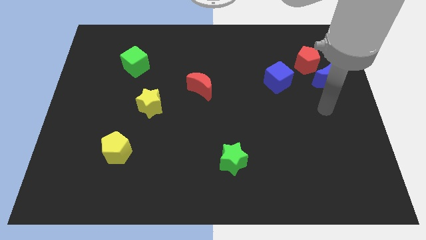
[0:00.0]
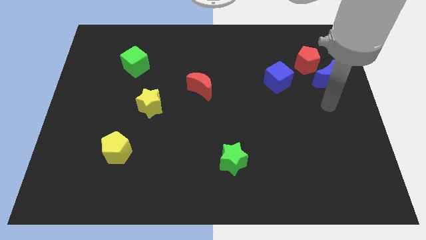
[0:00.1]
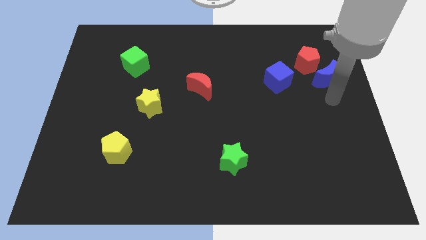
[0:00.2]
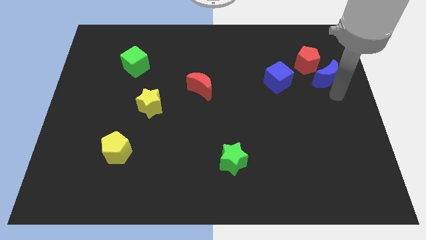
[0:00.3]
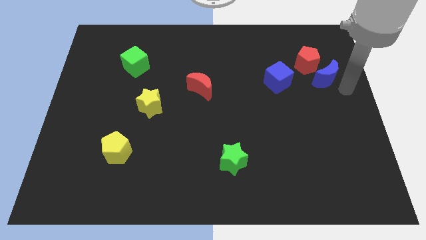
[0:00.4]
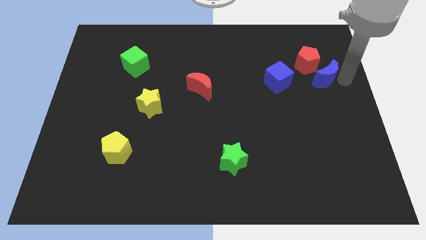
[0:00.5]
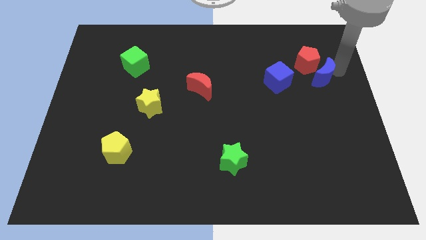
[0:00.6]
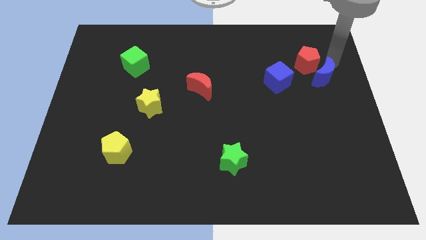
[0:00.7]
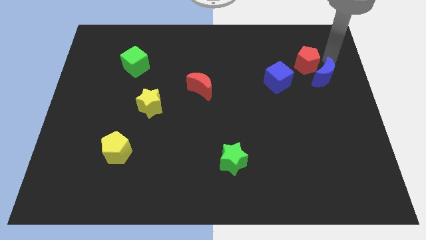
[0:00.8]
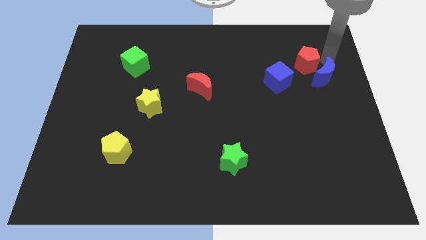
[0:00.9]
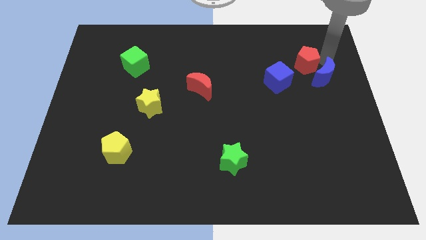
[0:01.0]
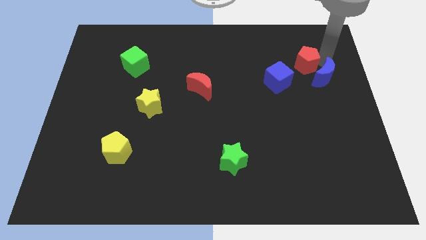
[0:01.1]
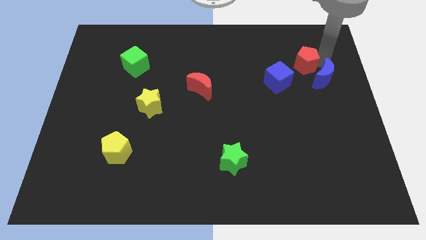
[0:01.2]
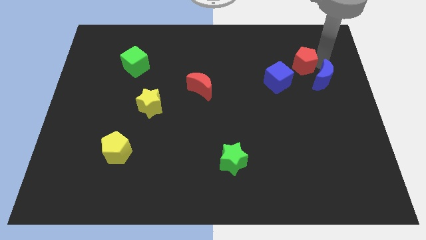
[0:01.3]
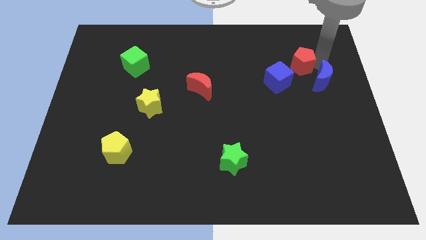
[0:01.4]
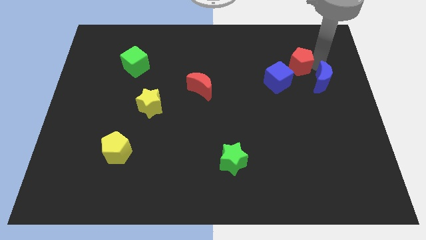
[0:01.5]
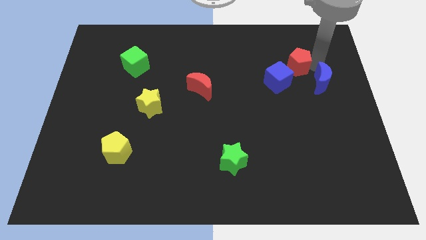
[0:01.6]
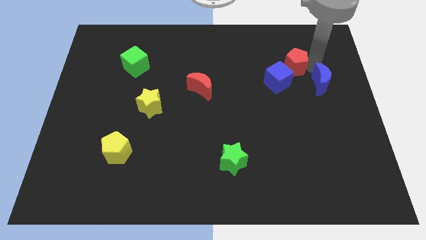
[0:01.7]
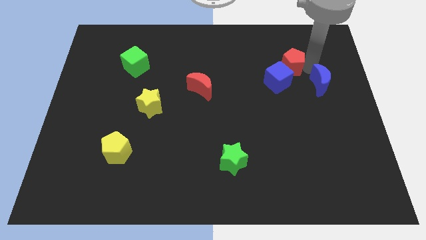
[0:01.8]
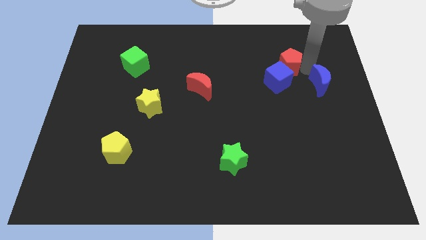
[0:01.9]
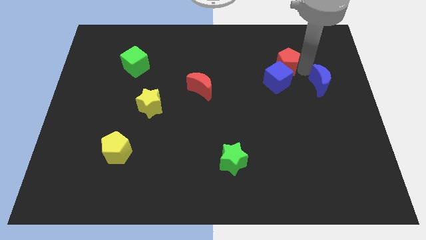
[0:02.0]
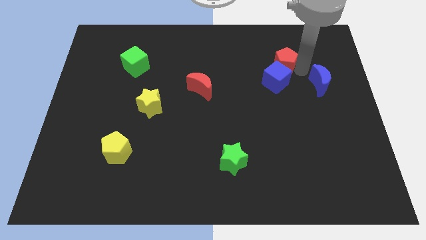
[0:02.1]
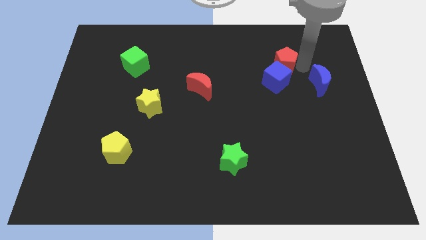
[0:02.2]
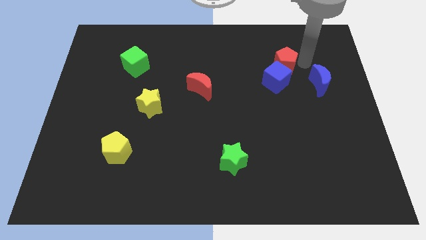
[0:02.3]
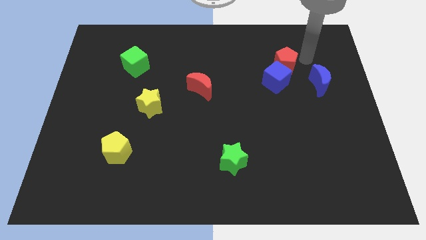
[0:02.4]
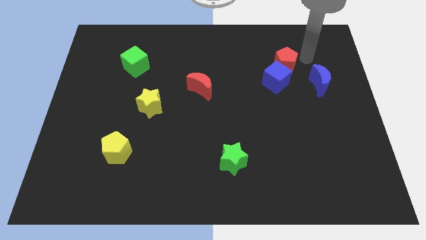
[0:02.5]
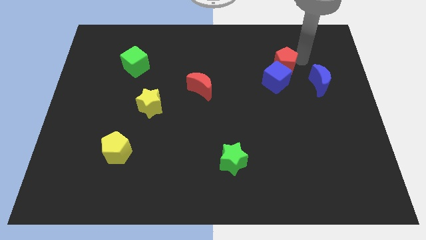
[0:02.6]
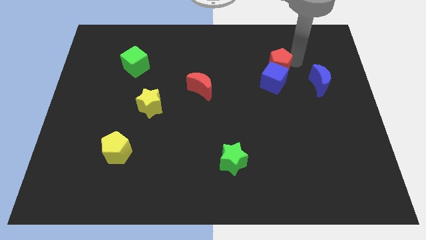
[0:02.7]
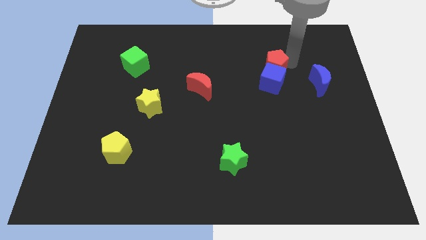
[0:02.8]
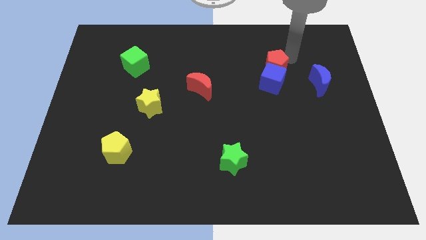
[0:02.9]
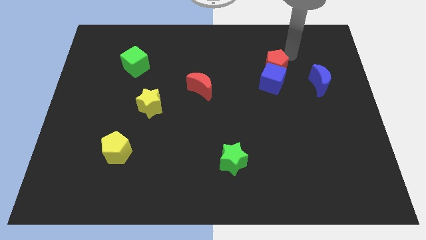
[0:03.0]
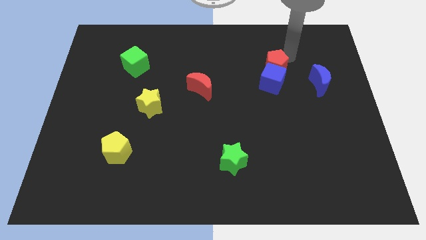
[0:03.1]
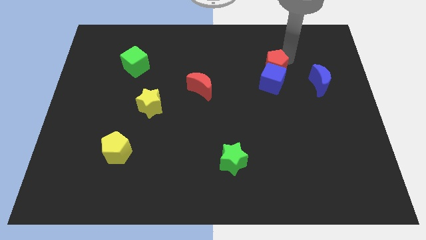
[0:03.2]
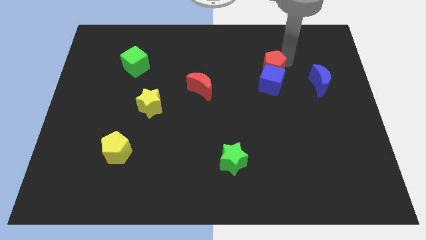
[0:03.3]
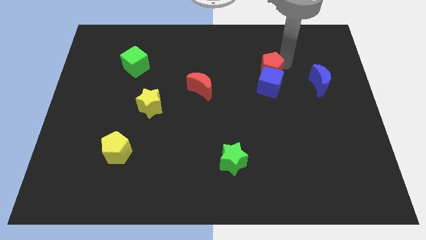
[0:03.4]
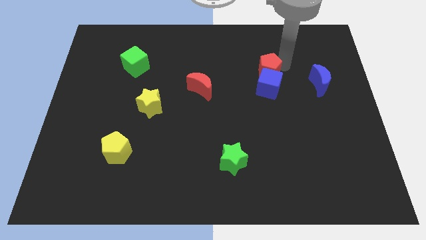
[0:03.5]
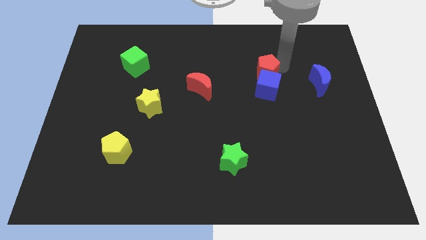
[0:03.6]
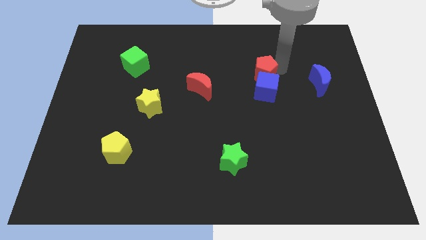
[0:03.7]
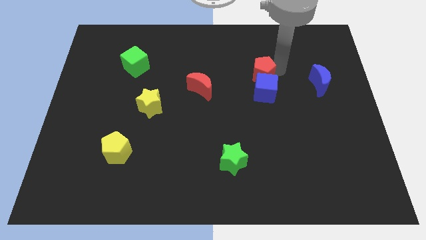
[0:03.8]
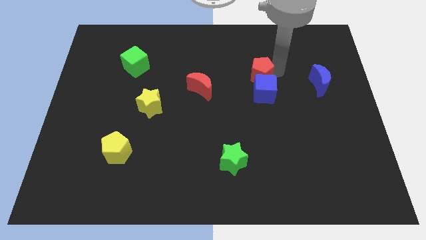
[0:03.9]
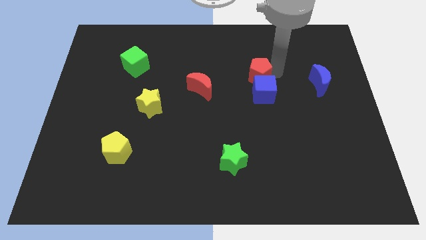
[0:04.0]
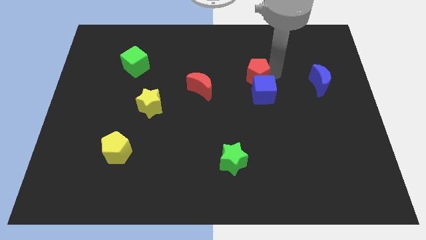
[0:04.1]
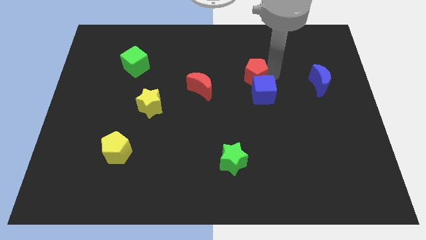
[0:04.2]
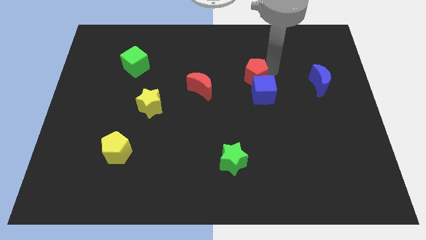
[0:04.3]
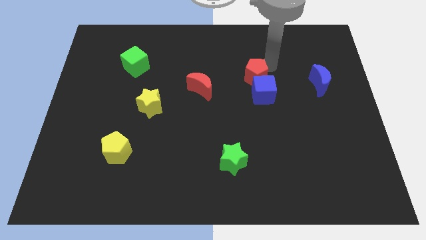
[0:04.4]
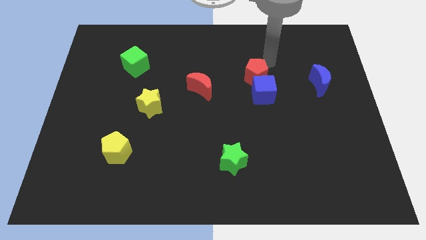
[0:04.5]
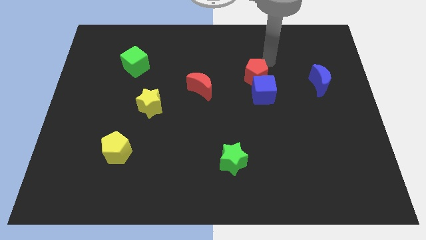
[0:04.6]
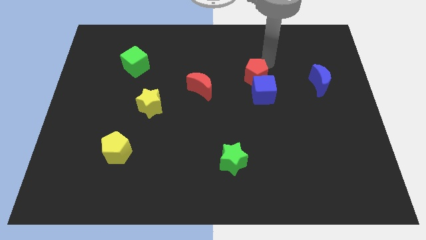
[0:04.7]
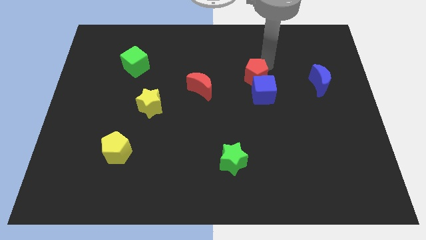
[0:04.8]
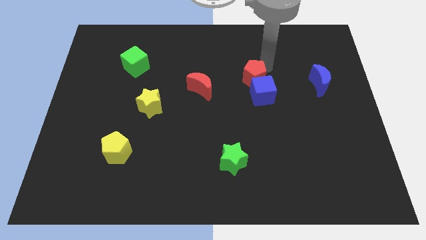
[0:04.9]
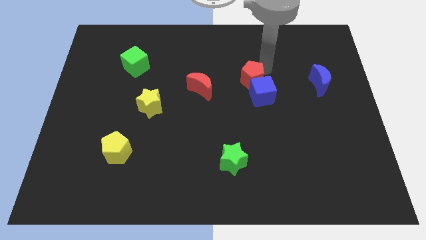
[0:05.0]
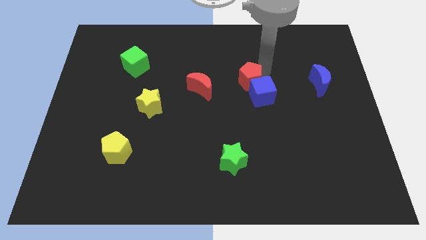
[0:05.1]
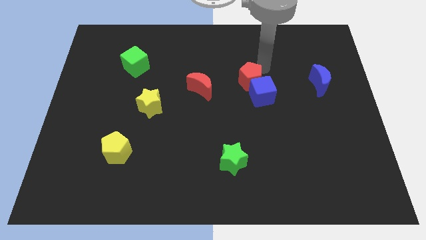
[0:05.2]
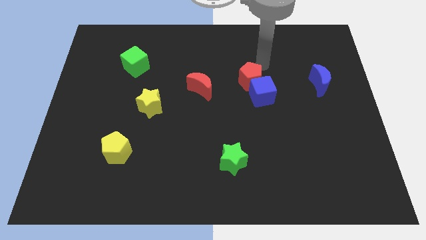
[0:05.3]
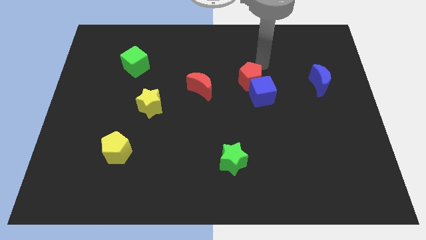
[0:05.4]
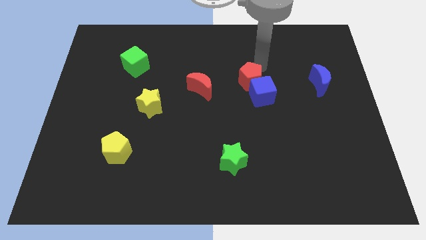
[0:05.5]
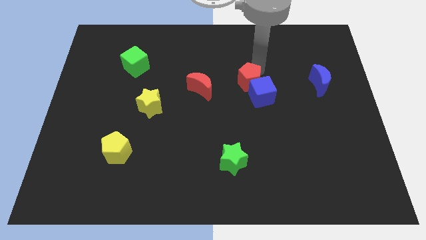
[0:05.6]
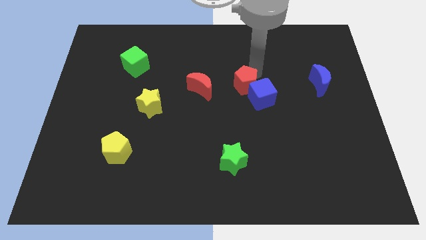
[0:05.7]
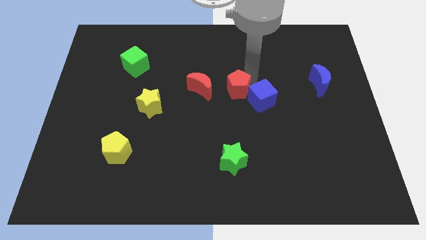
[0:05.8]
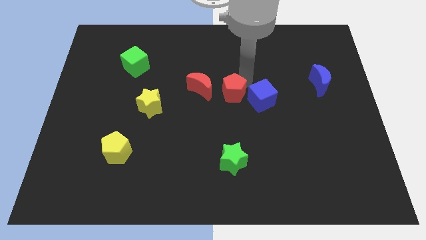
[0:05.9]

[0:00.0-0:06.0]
move the red pentagon to the bottom right side of the red moon
